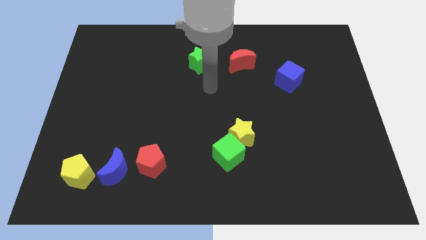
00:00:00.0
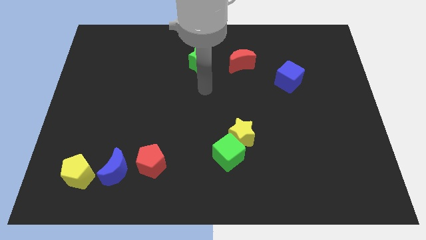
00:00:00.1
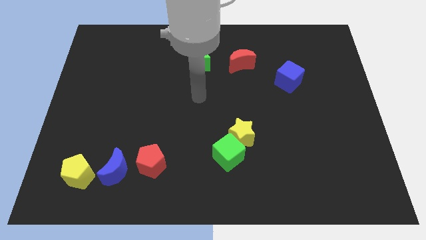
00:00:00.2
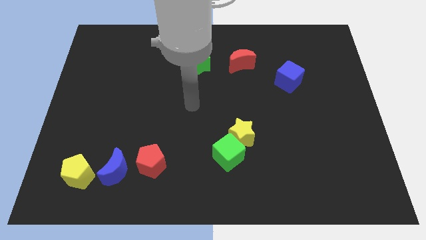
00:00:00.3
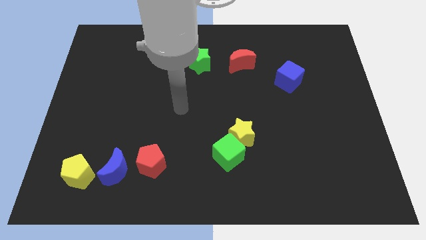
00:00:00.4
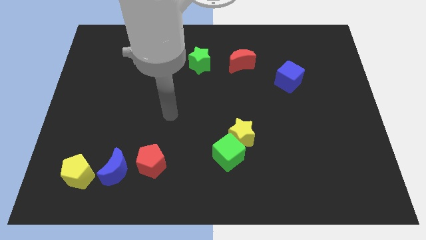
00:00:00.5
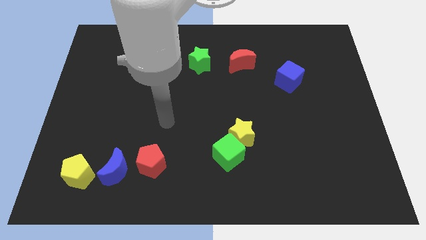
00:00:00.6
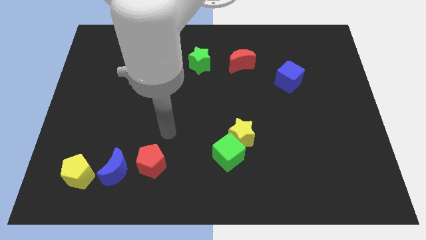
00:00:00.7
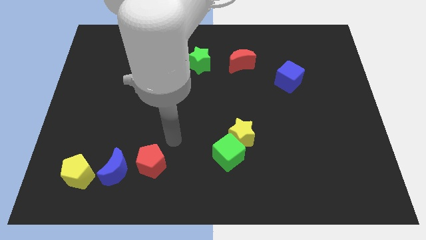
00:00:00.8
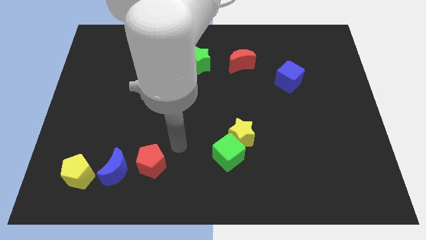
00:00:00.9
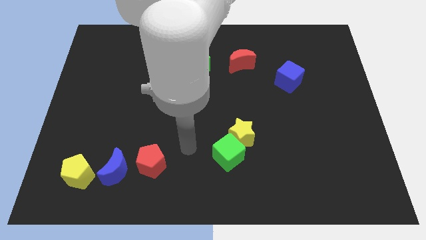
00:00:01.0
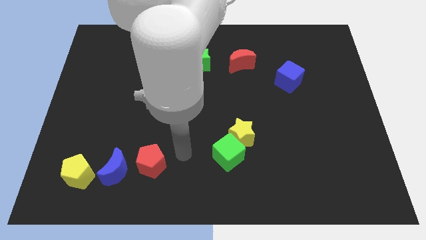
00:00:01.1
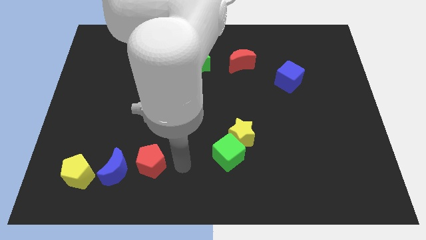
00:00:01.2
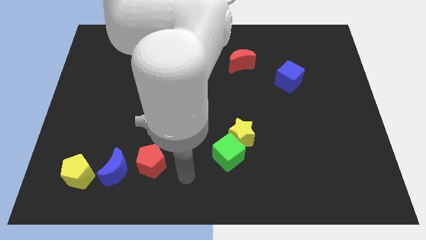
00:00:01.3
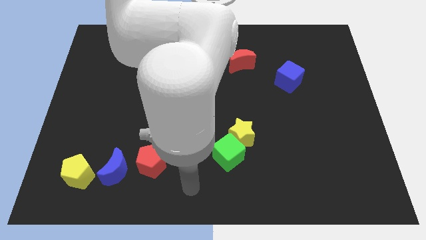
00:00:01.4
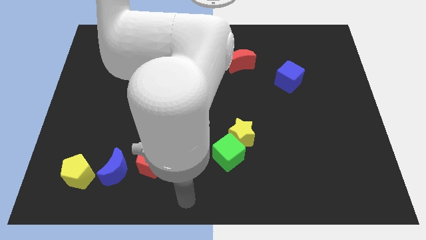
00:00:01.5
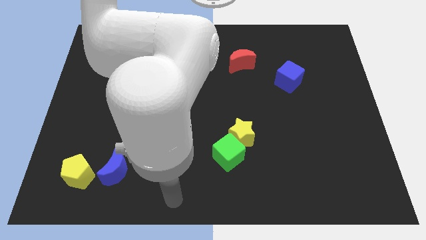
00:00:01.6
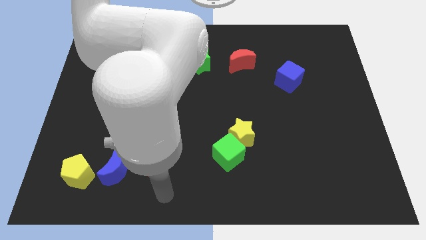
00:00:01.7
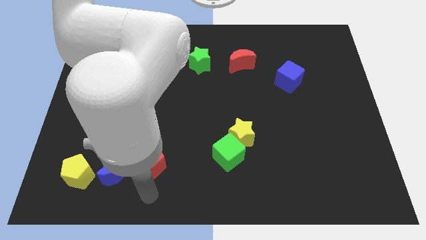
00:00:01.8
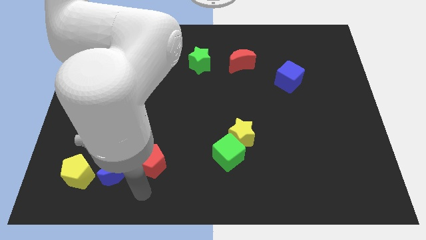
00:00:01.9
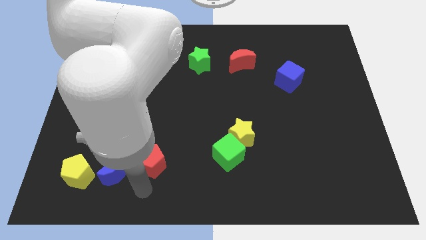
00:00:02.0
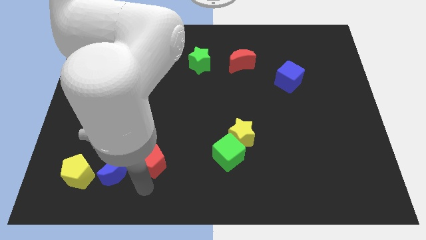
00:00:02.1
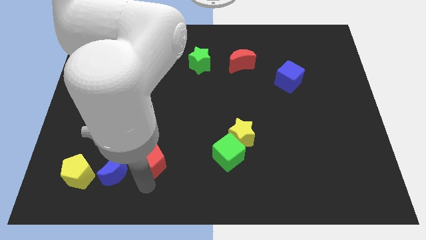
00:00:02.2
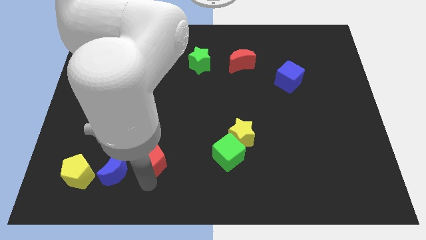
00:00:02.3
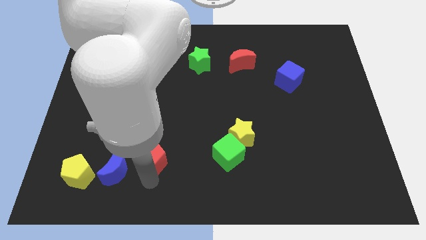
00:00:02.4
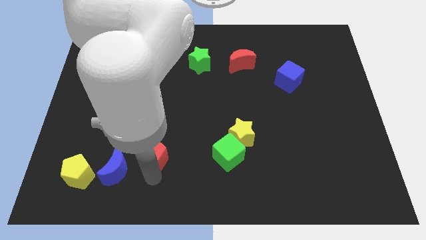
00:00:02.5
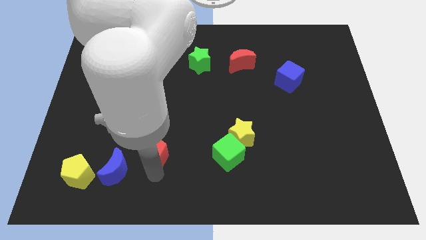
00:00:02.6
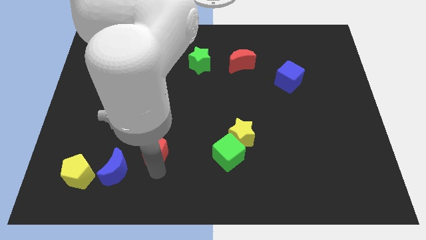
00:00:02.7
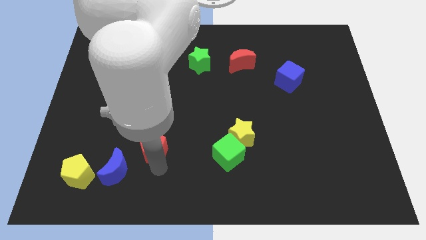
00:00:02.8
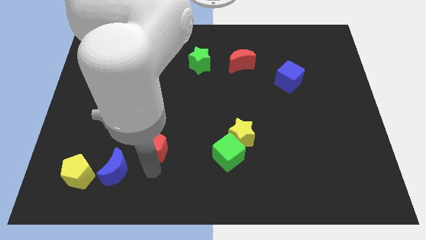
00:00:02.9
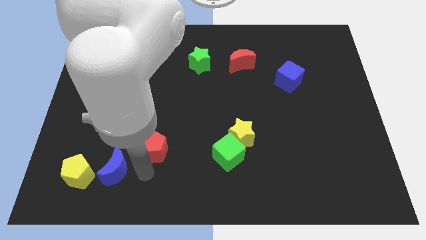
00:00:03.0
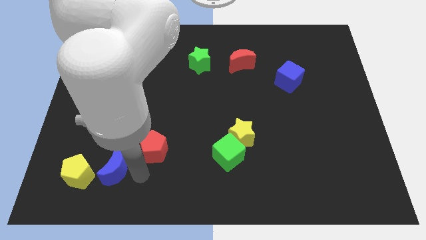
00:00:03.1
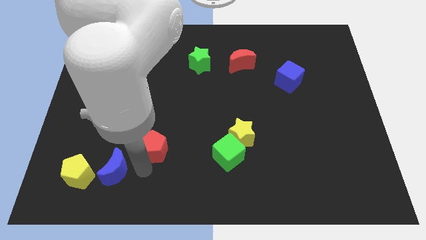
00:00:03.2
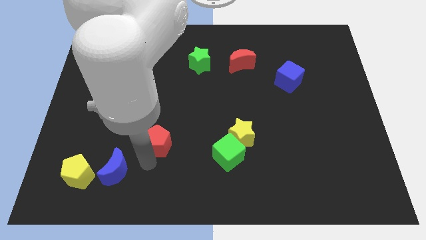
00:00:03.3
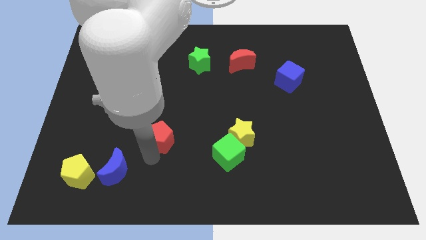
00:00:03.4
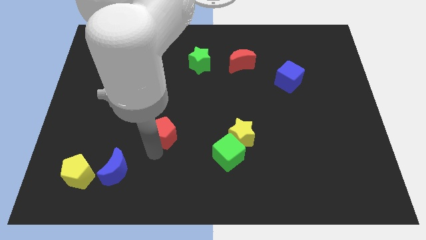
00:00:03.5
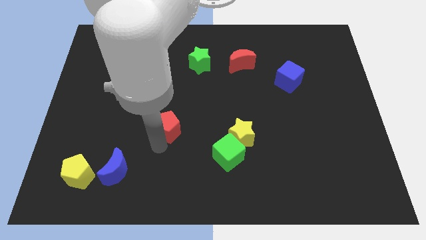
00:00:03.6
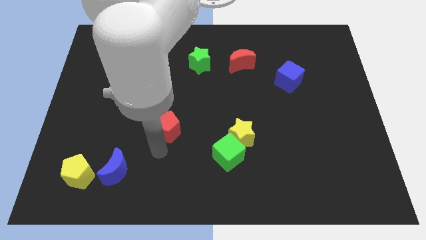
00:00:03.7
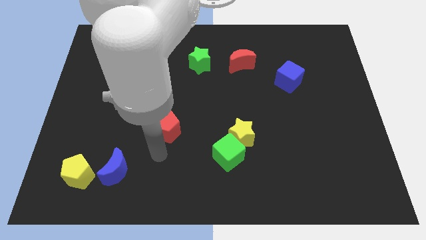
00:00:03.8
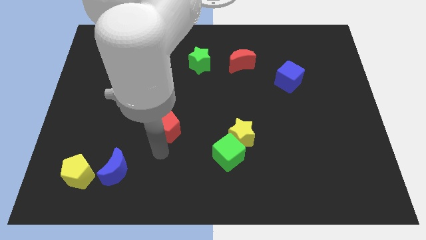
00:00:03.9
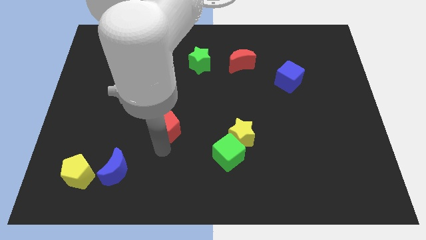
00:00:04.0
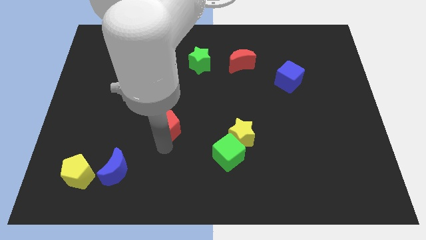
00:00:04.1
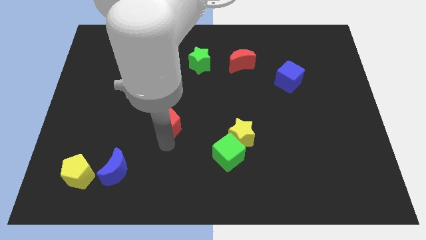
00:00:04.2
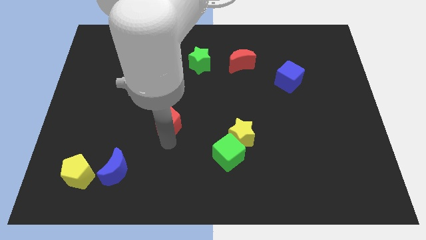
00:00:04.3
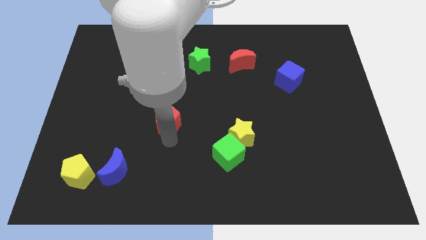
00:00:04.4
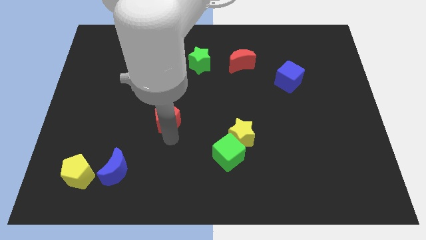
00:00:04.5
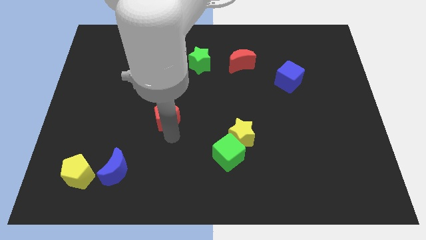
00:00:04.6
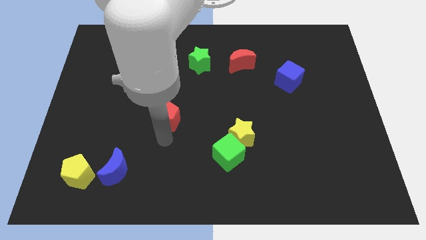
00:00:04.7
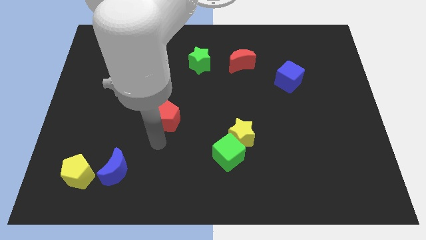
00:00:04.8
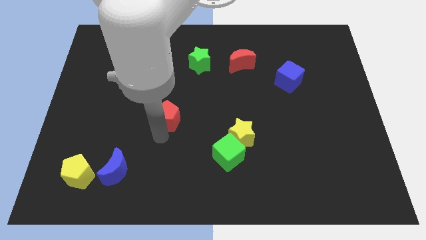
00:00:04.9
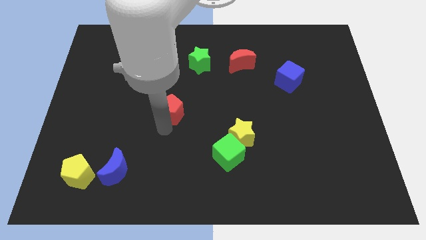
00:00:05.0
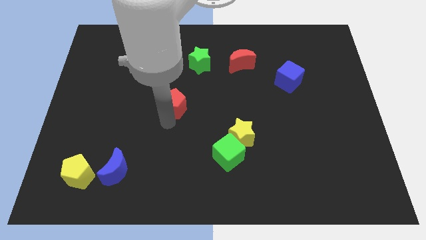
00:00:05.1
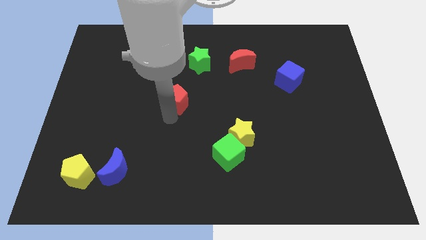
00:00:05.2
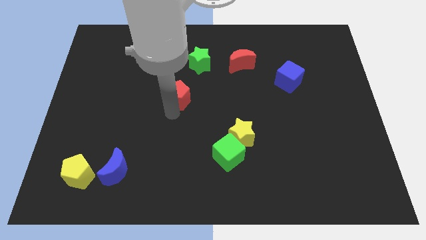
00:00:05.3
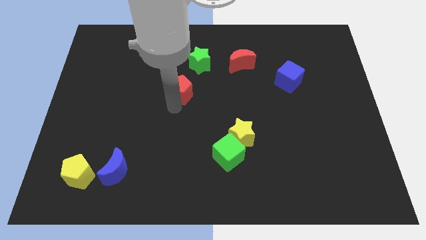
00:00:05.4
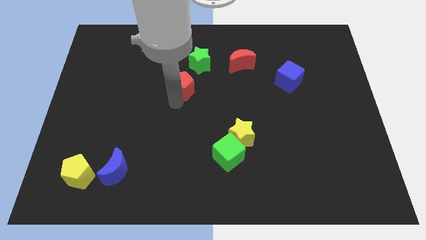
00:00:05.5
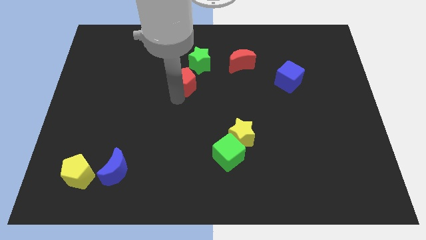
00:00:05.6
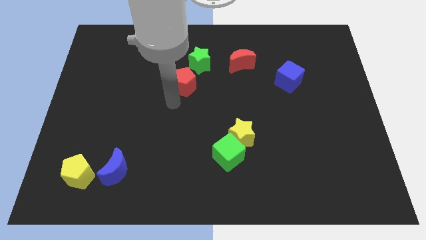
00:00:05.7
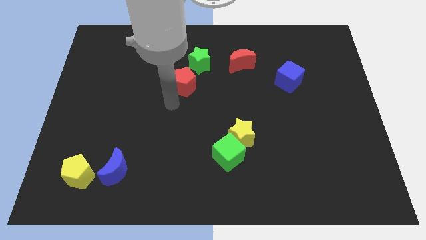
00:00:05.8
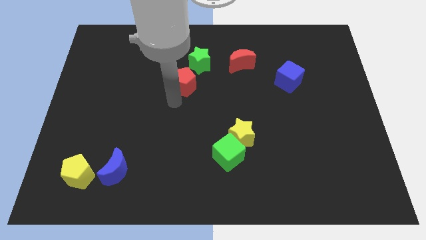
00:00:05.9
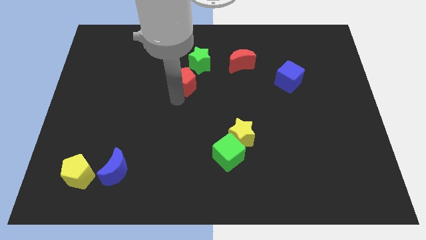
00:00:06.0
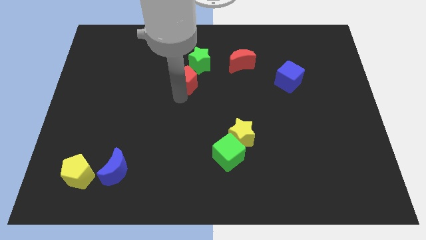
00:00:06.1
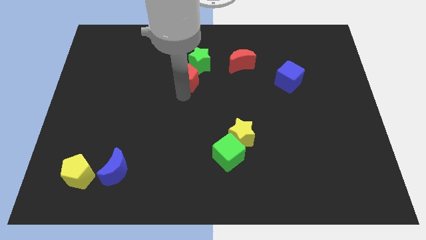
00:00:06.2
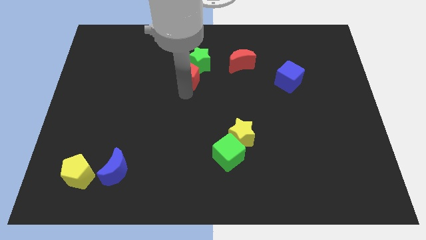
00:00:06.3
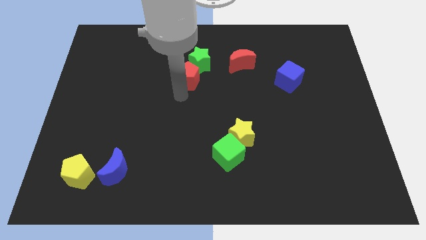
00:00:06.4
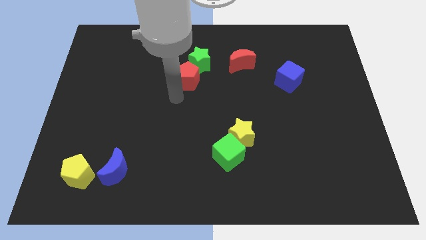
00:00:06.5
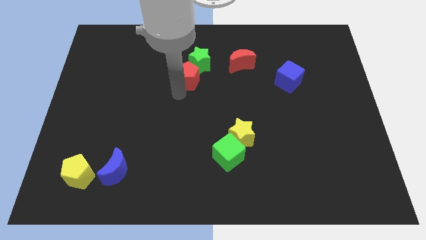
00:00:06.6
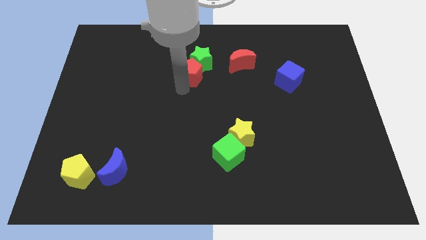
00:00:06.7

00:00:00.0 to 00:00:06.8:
push the red pentagon towards the green star
